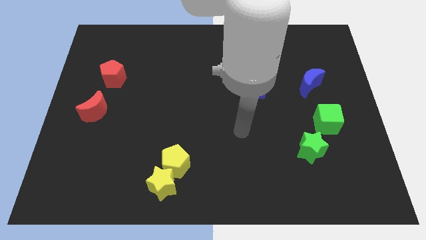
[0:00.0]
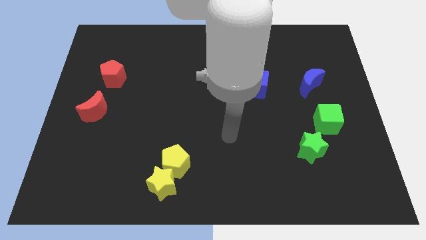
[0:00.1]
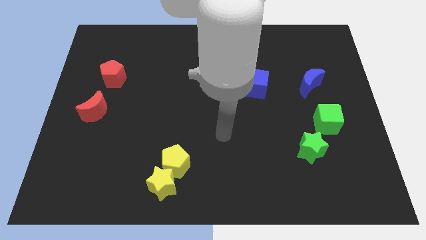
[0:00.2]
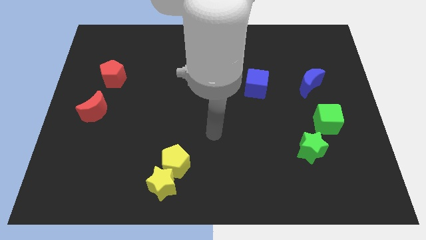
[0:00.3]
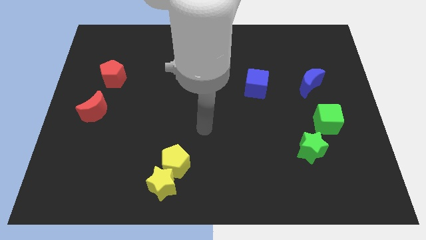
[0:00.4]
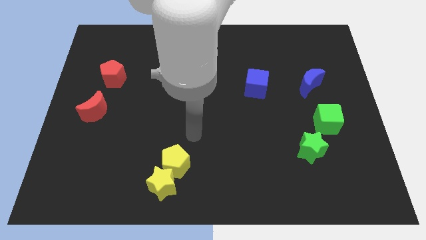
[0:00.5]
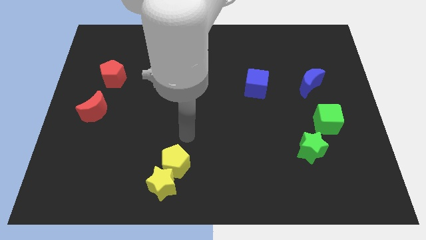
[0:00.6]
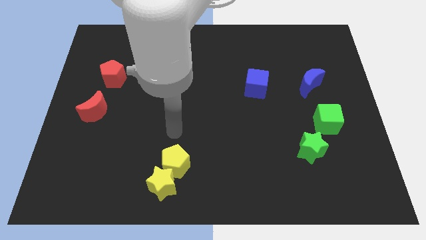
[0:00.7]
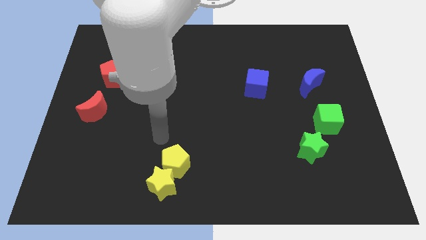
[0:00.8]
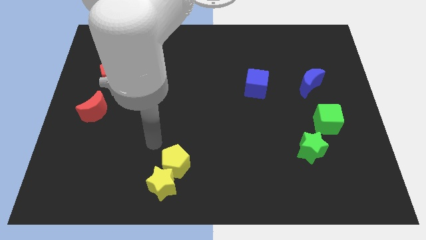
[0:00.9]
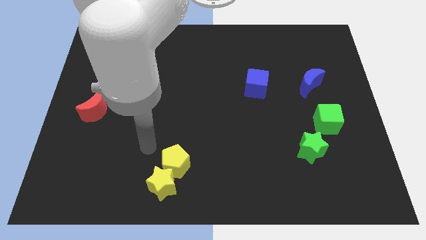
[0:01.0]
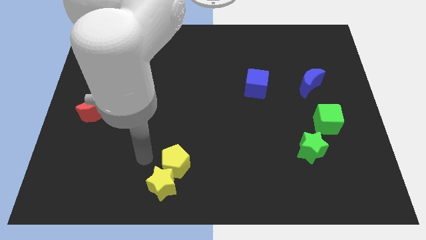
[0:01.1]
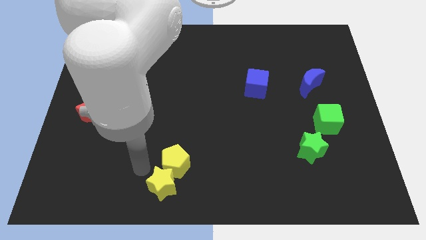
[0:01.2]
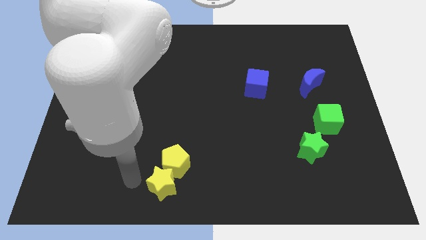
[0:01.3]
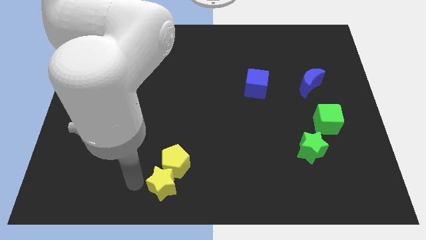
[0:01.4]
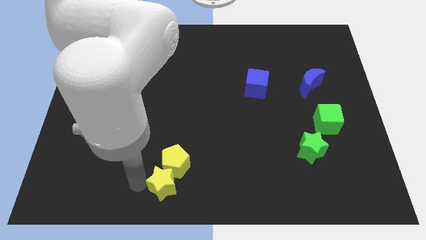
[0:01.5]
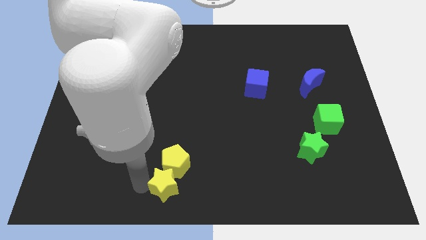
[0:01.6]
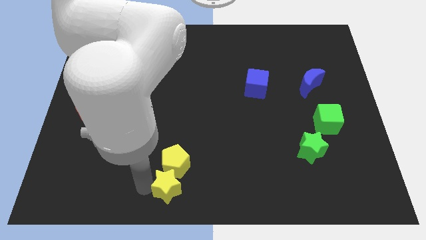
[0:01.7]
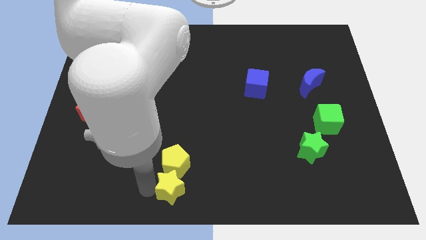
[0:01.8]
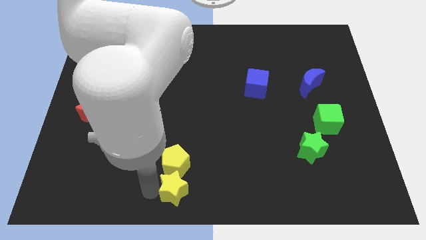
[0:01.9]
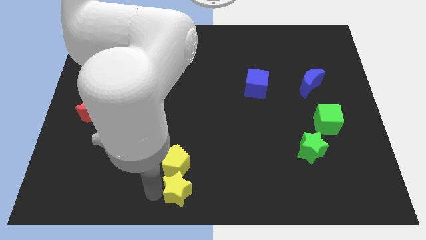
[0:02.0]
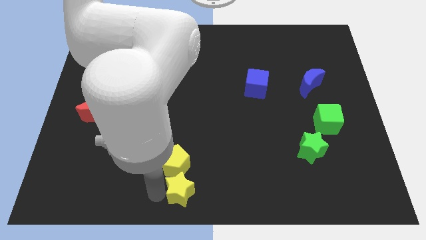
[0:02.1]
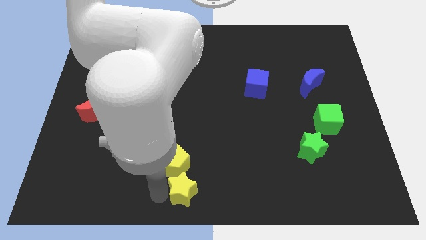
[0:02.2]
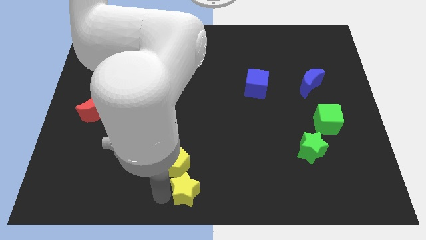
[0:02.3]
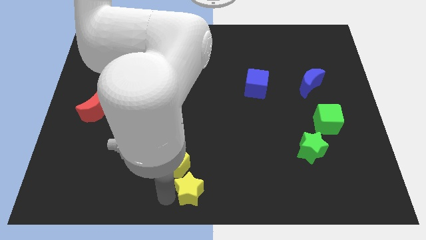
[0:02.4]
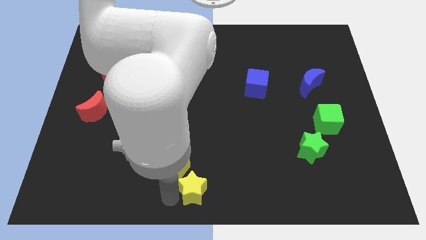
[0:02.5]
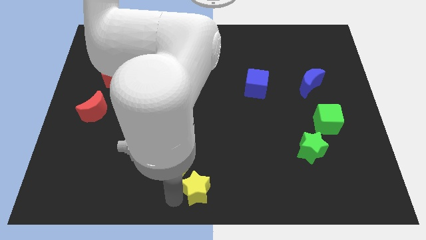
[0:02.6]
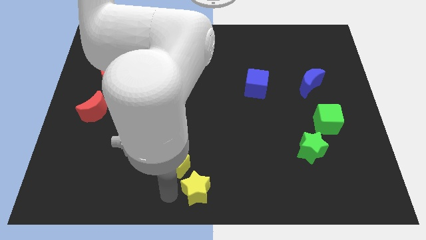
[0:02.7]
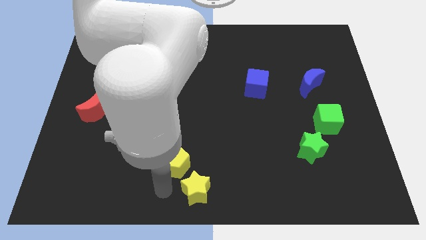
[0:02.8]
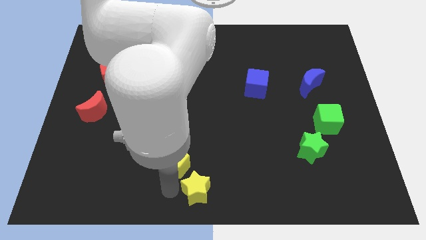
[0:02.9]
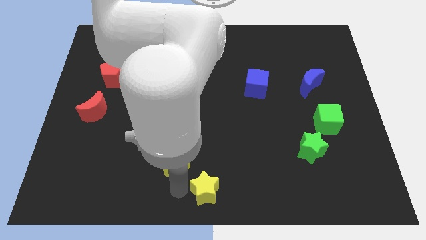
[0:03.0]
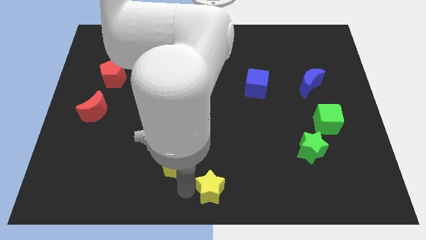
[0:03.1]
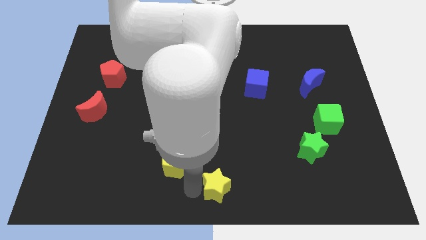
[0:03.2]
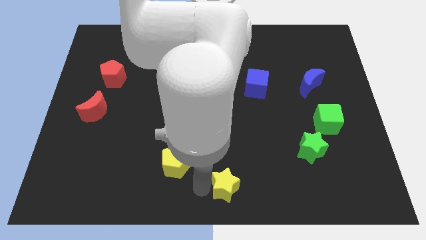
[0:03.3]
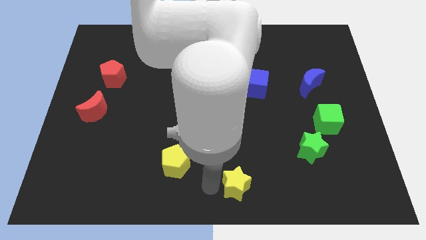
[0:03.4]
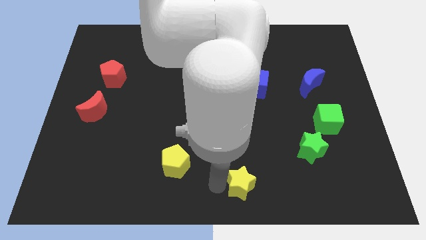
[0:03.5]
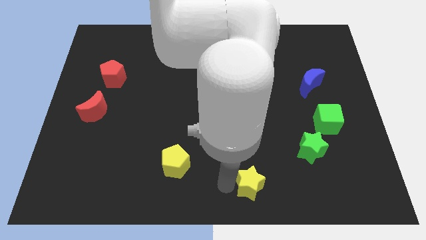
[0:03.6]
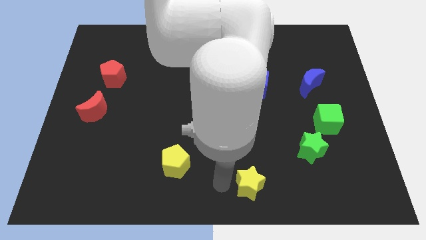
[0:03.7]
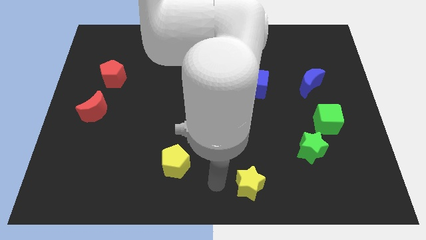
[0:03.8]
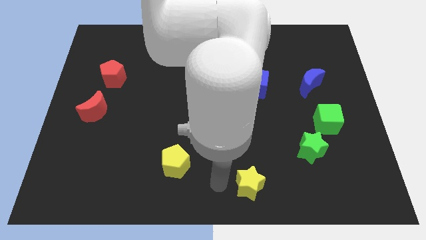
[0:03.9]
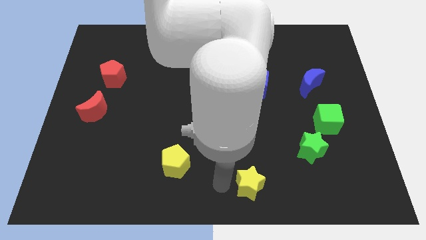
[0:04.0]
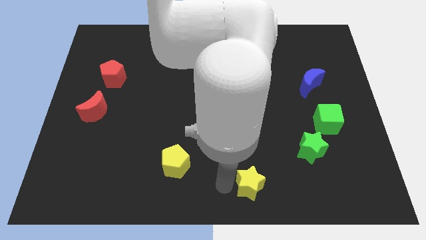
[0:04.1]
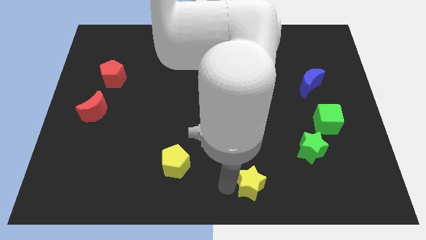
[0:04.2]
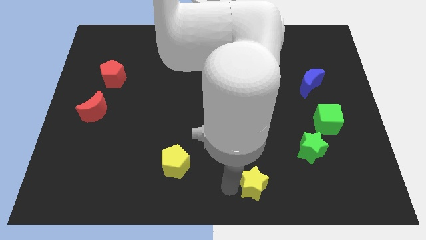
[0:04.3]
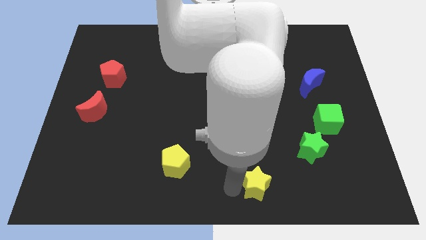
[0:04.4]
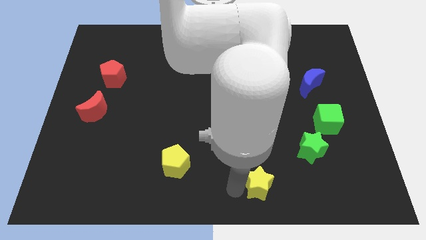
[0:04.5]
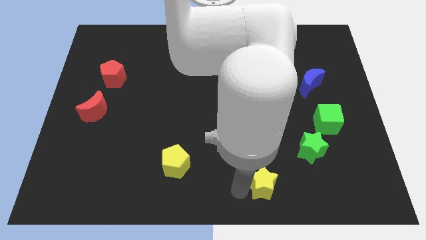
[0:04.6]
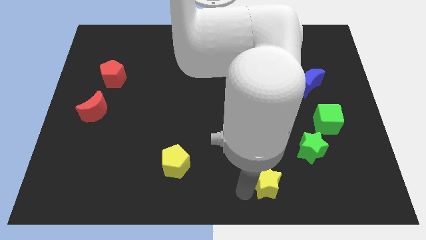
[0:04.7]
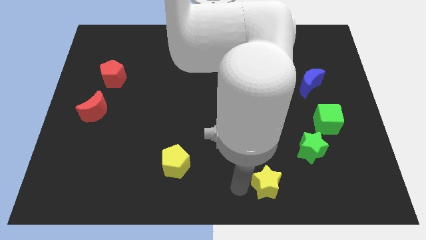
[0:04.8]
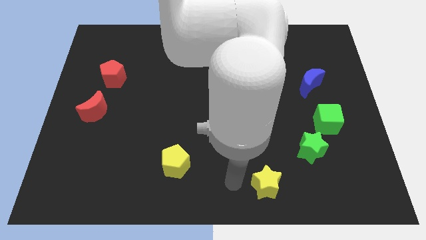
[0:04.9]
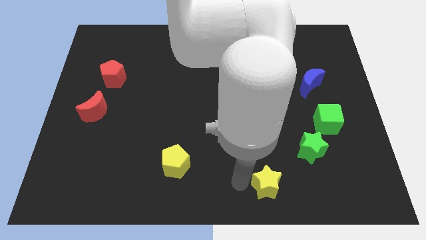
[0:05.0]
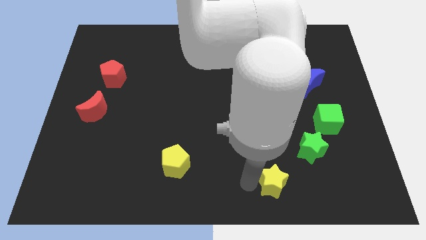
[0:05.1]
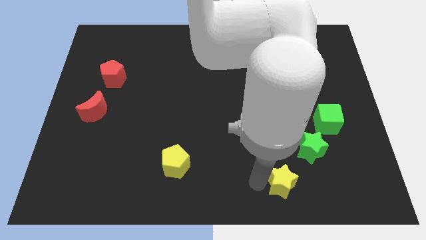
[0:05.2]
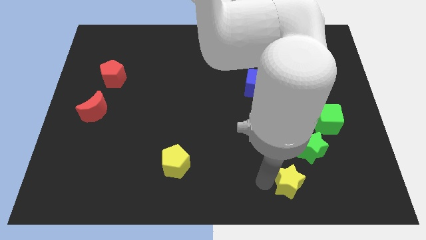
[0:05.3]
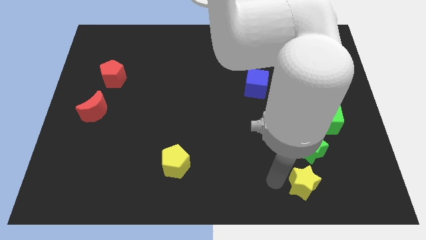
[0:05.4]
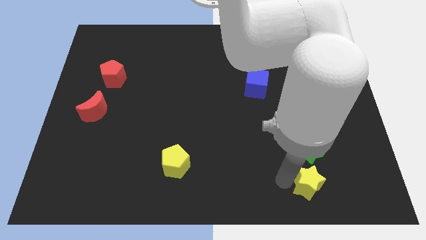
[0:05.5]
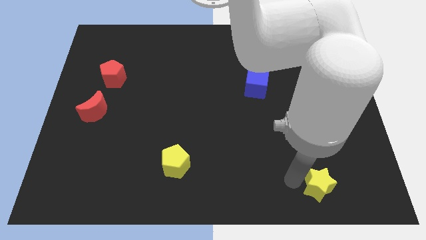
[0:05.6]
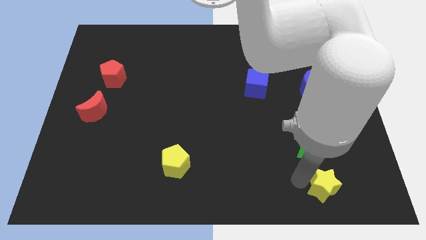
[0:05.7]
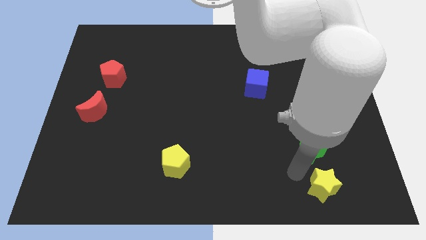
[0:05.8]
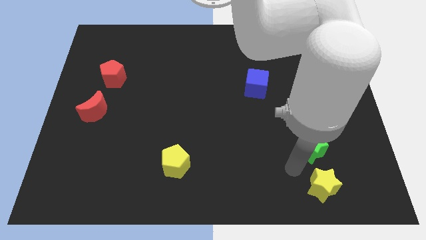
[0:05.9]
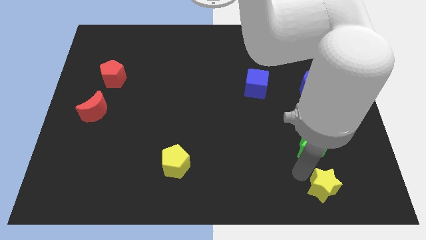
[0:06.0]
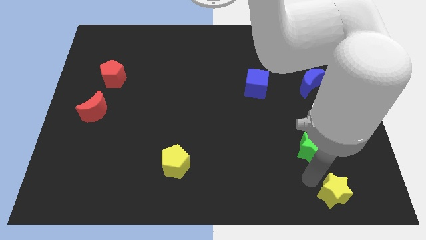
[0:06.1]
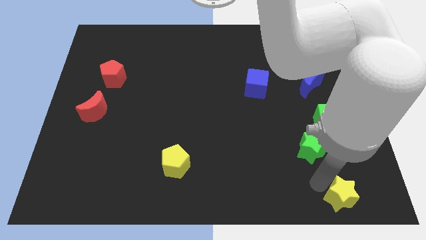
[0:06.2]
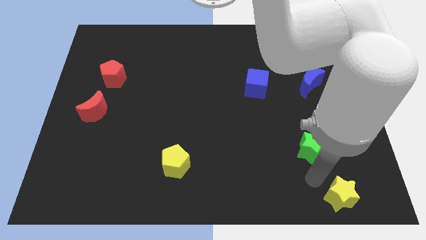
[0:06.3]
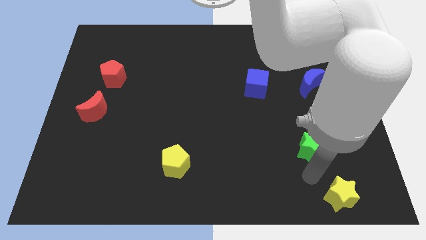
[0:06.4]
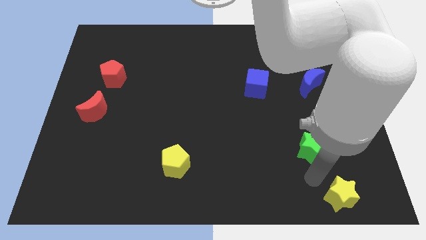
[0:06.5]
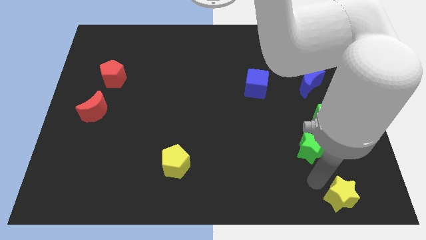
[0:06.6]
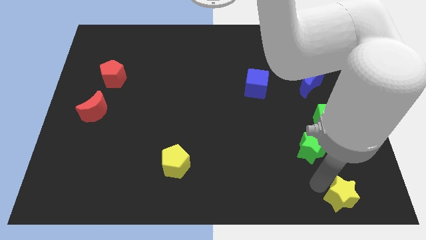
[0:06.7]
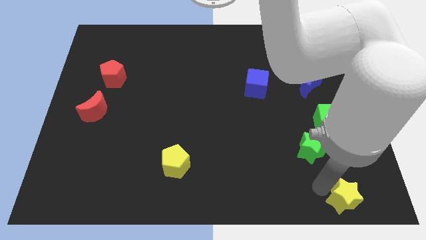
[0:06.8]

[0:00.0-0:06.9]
move the yellow star to the bottom right
